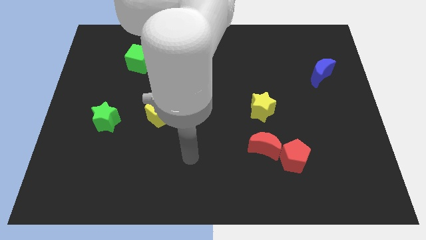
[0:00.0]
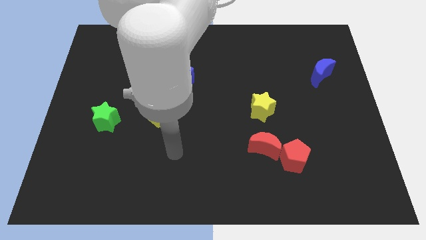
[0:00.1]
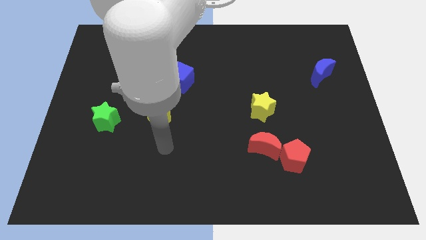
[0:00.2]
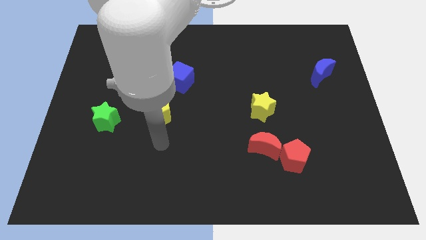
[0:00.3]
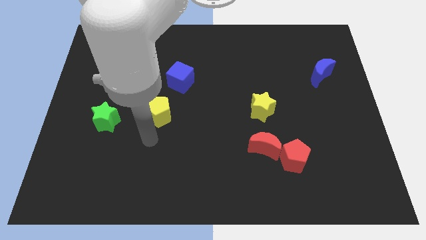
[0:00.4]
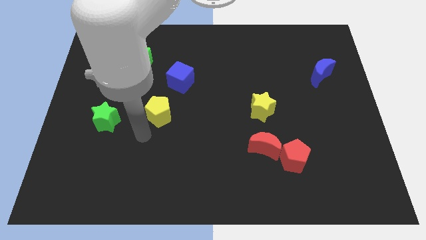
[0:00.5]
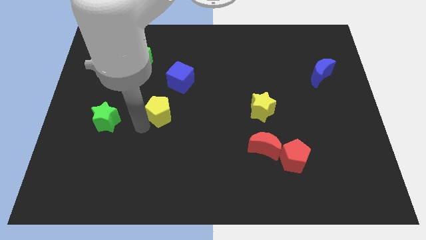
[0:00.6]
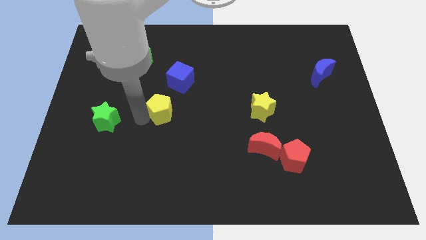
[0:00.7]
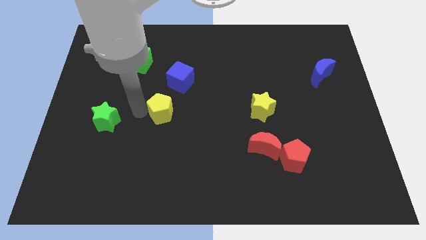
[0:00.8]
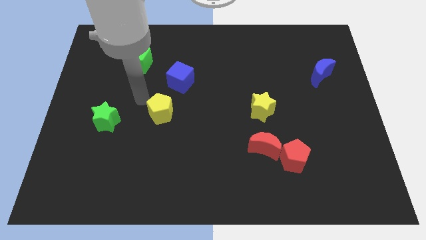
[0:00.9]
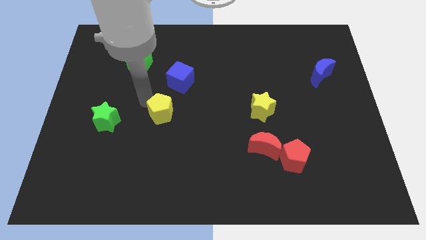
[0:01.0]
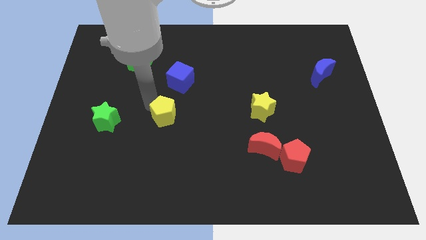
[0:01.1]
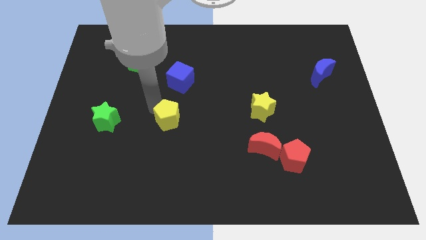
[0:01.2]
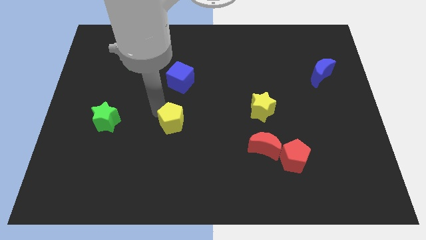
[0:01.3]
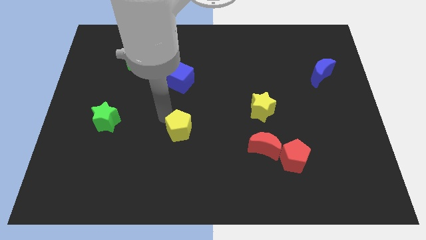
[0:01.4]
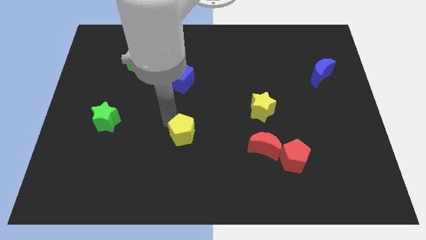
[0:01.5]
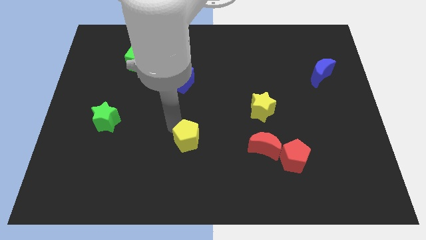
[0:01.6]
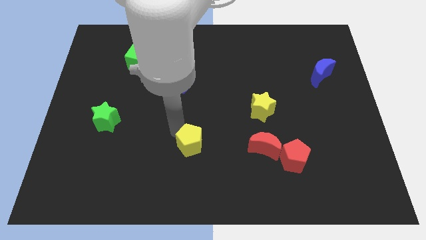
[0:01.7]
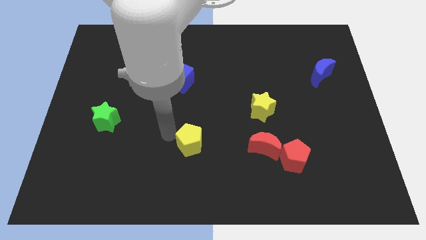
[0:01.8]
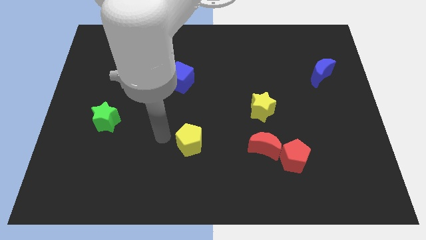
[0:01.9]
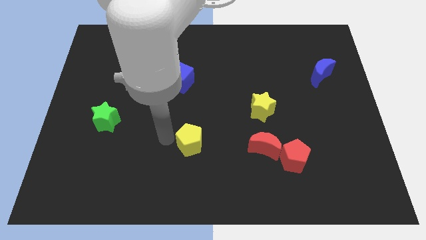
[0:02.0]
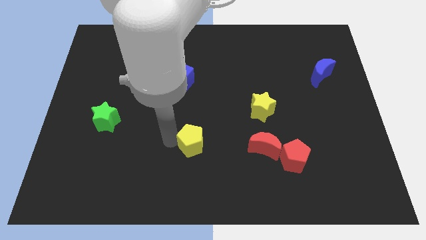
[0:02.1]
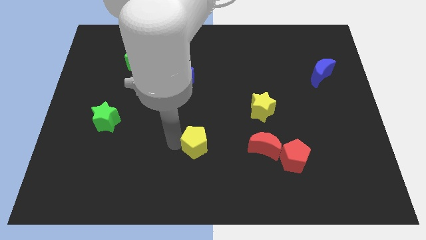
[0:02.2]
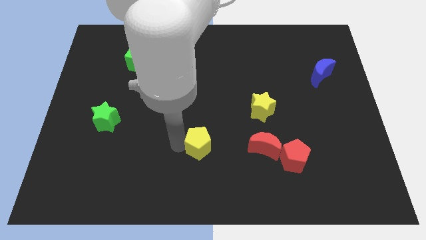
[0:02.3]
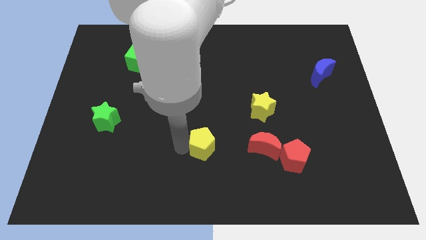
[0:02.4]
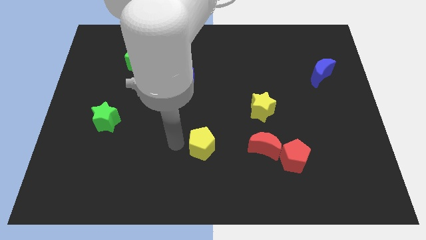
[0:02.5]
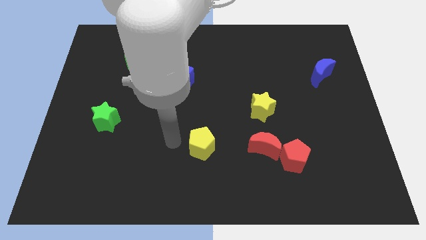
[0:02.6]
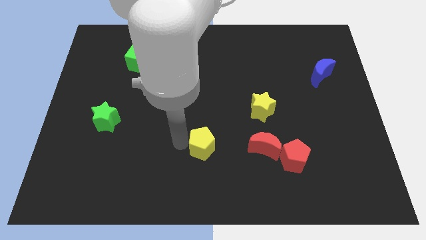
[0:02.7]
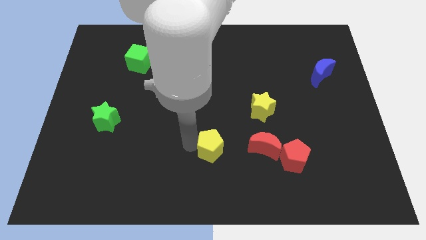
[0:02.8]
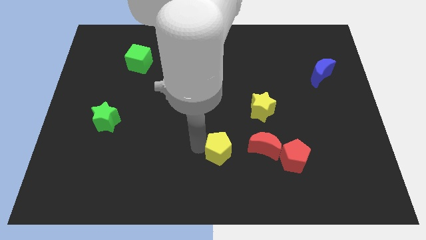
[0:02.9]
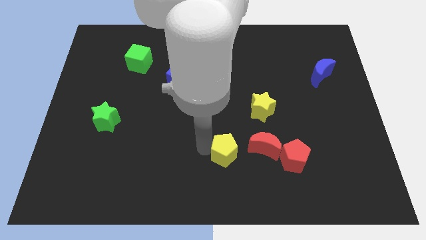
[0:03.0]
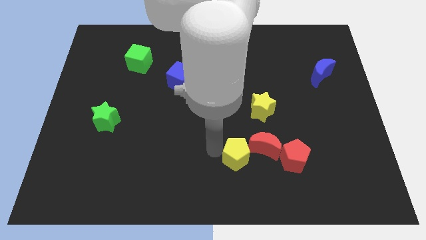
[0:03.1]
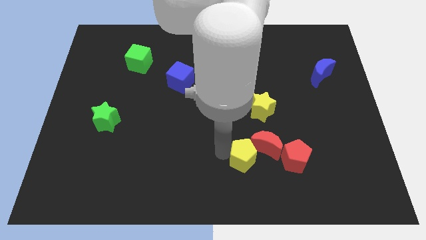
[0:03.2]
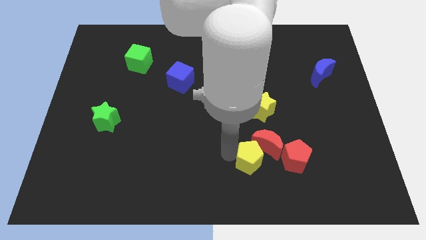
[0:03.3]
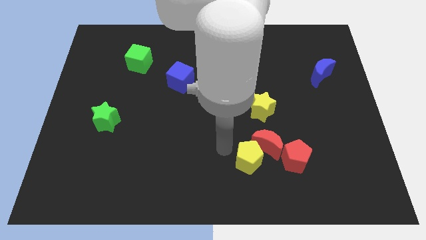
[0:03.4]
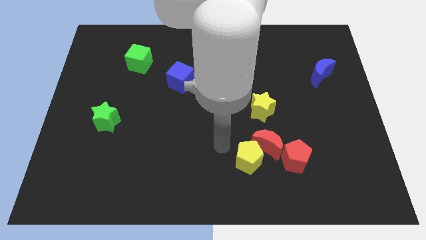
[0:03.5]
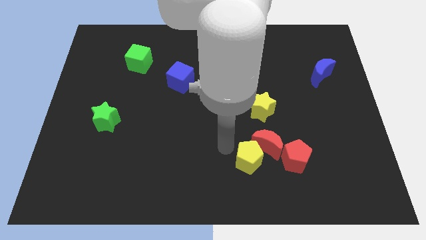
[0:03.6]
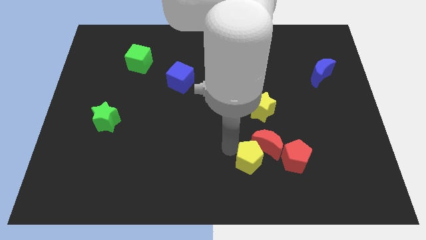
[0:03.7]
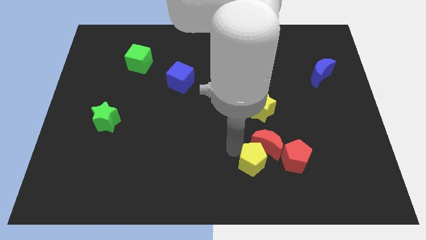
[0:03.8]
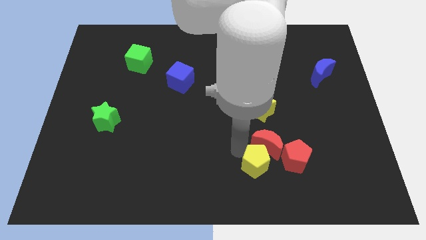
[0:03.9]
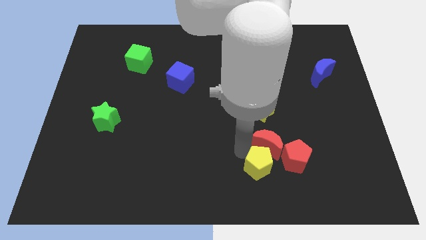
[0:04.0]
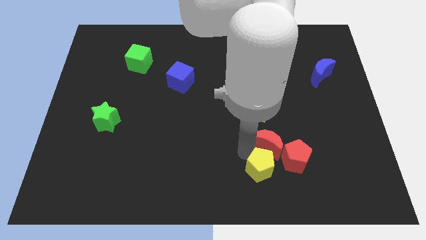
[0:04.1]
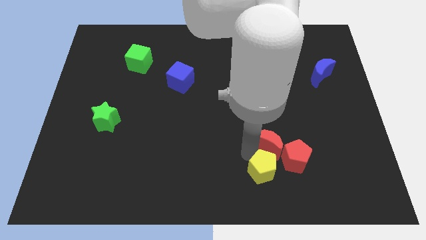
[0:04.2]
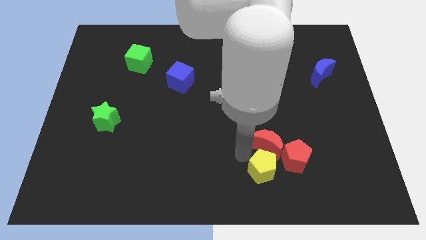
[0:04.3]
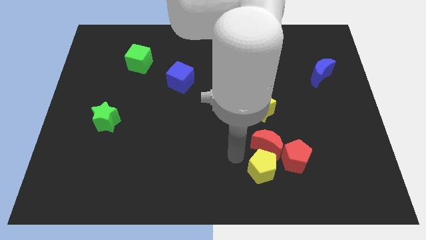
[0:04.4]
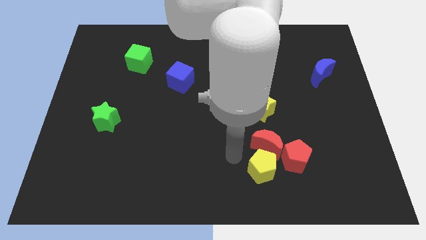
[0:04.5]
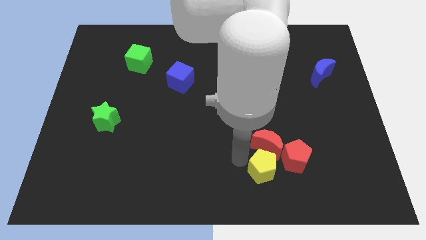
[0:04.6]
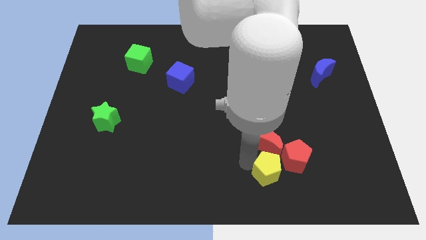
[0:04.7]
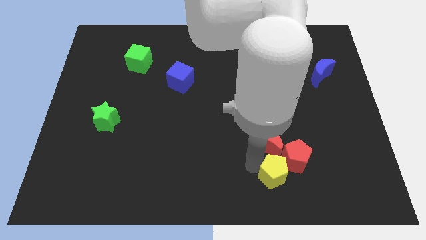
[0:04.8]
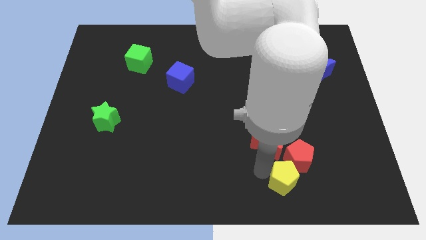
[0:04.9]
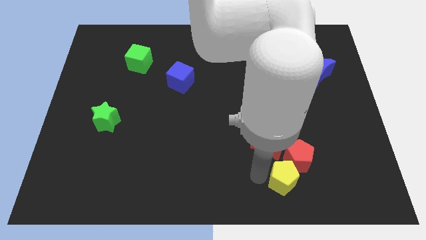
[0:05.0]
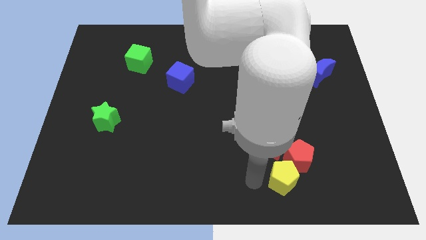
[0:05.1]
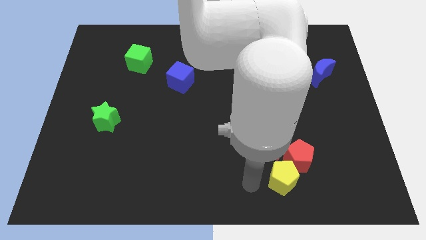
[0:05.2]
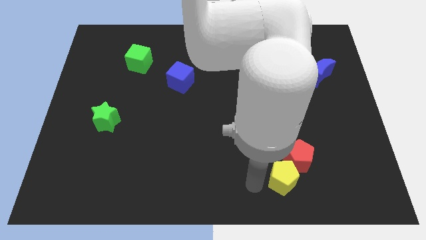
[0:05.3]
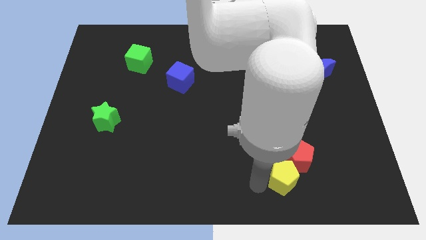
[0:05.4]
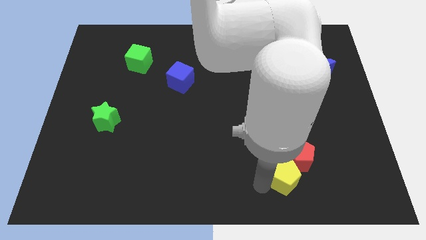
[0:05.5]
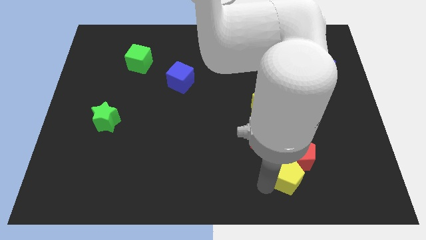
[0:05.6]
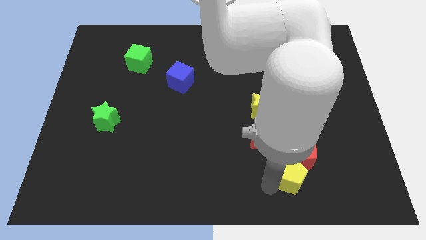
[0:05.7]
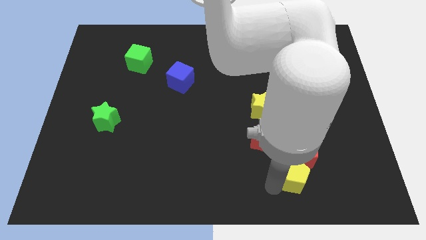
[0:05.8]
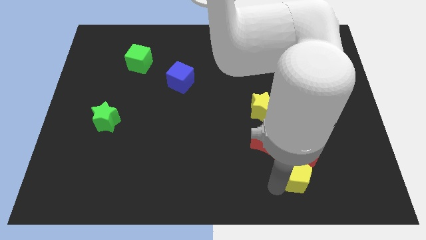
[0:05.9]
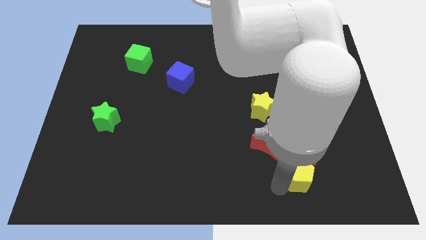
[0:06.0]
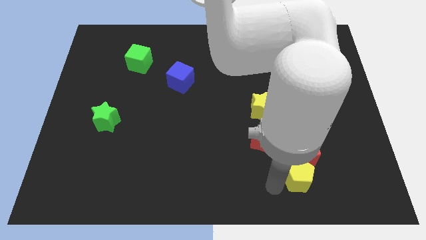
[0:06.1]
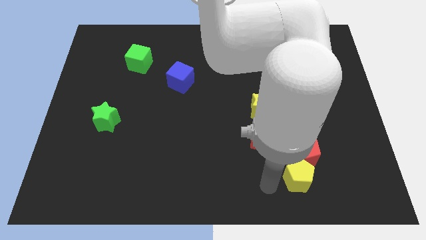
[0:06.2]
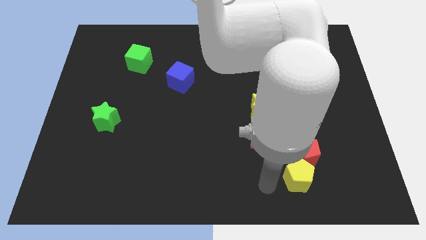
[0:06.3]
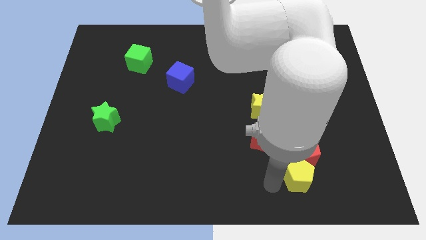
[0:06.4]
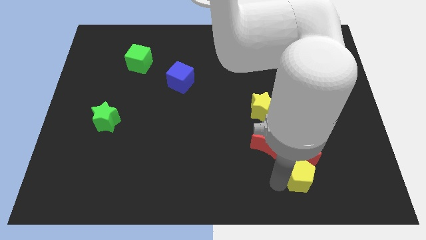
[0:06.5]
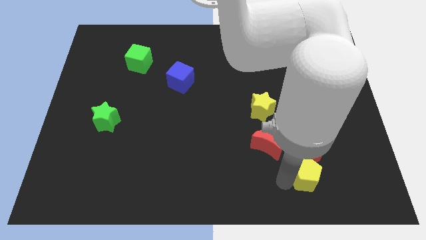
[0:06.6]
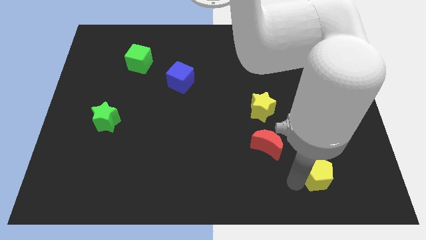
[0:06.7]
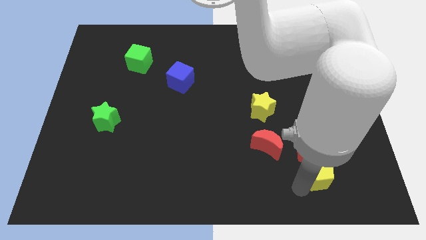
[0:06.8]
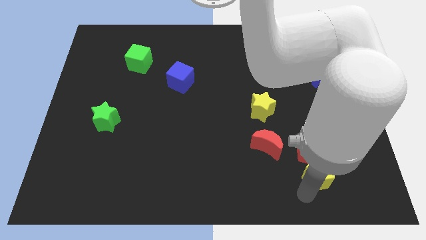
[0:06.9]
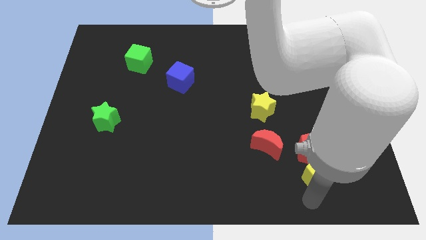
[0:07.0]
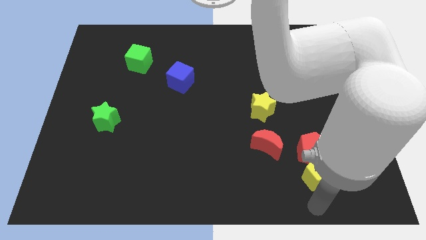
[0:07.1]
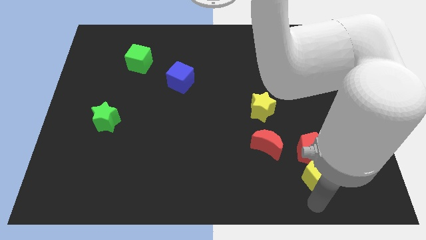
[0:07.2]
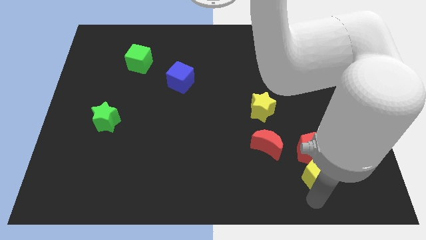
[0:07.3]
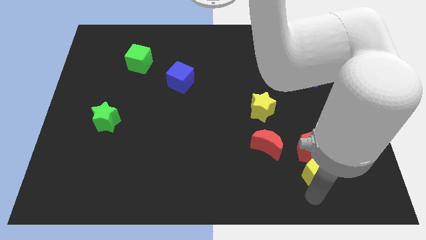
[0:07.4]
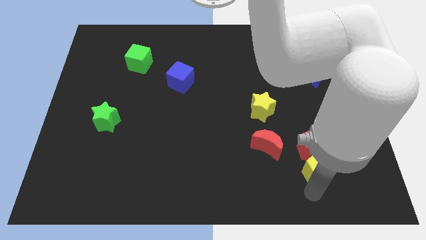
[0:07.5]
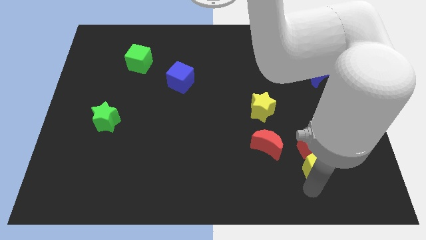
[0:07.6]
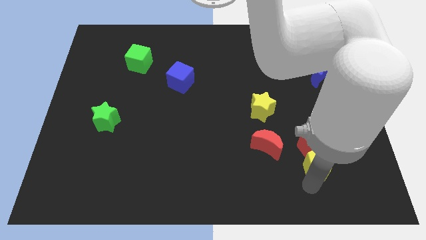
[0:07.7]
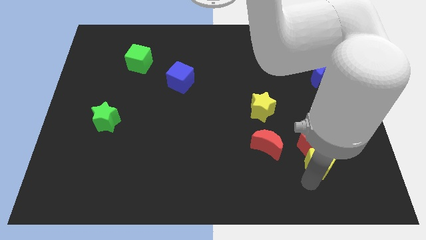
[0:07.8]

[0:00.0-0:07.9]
move the yellow pentagon right of the red moon
